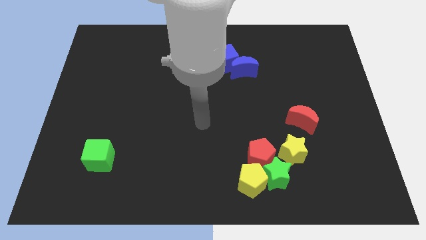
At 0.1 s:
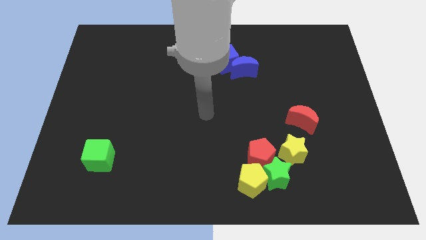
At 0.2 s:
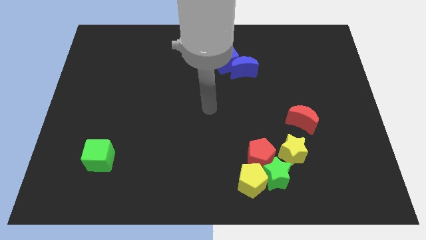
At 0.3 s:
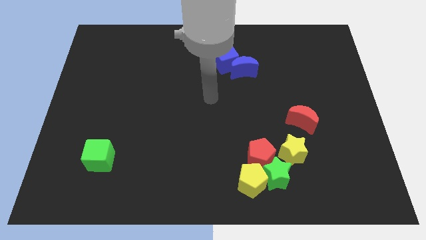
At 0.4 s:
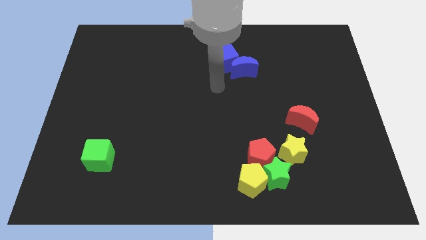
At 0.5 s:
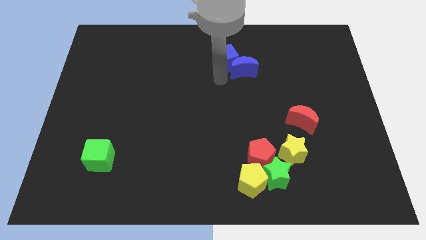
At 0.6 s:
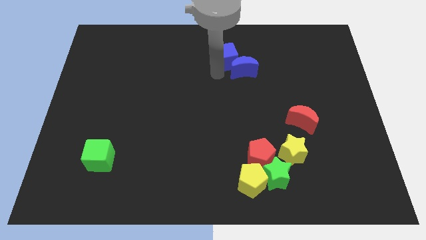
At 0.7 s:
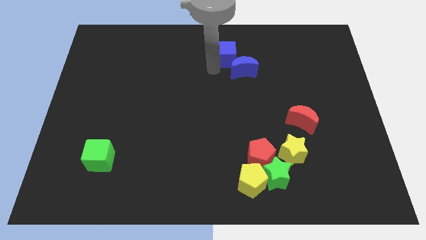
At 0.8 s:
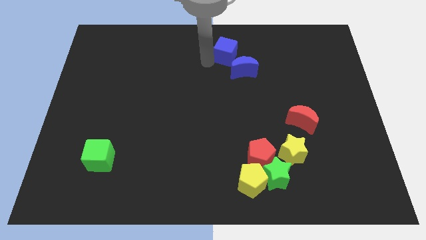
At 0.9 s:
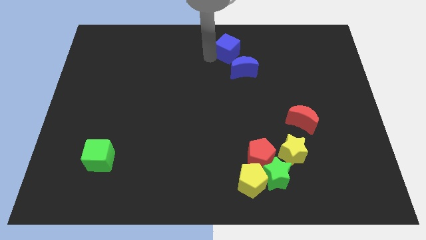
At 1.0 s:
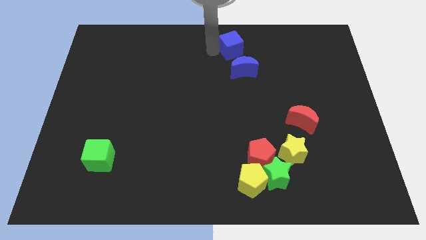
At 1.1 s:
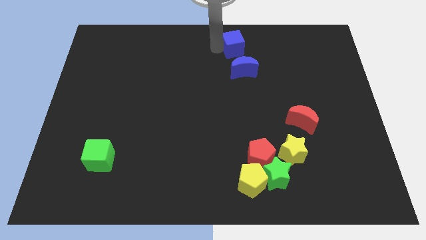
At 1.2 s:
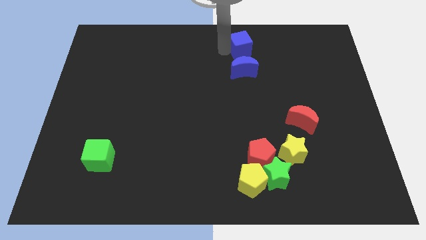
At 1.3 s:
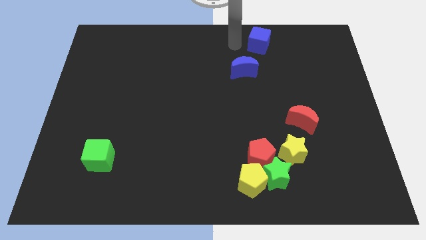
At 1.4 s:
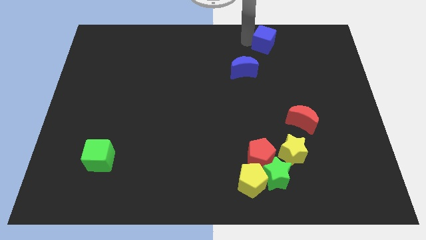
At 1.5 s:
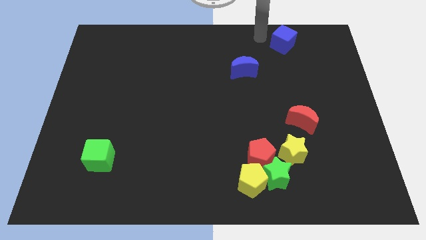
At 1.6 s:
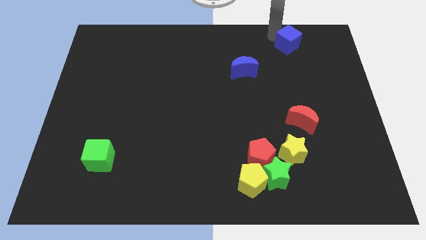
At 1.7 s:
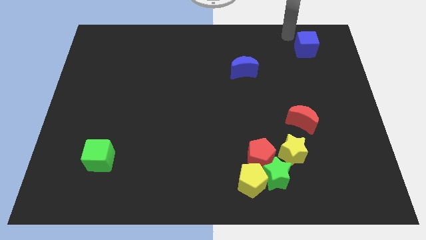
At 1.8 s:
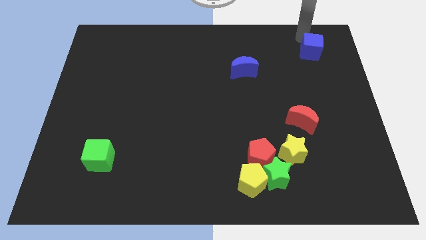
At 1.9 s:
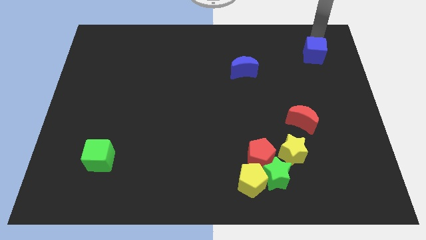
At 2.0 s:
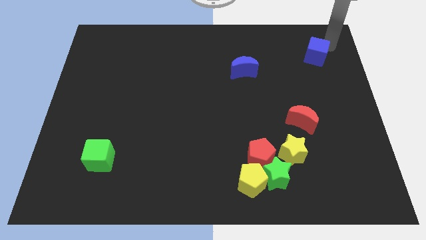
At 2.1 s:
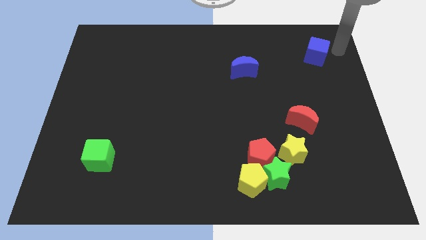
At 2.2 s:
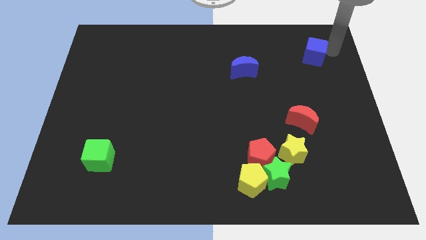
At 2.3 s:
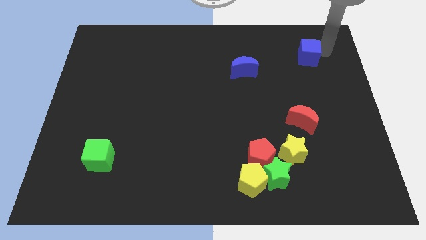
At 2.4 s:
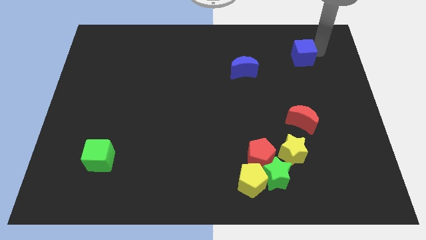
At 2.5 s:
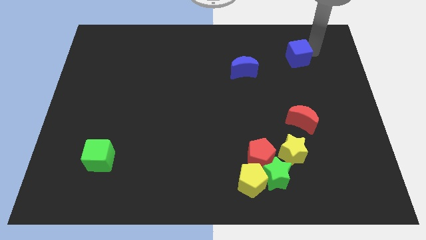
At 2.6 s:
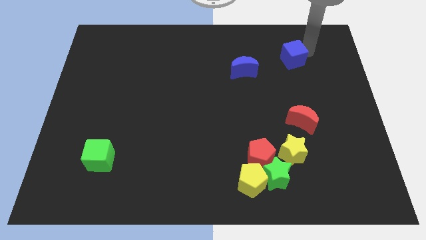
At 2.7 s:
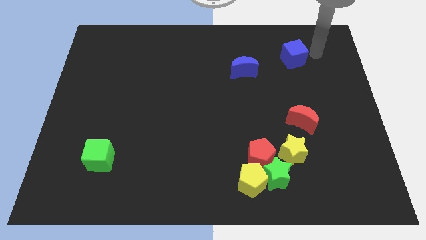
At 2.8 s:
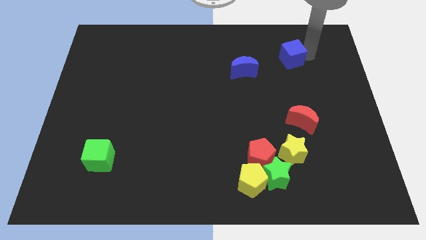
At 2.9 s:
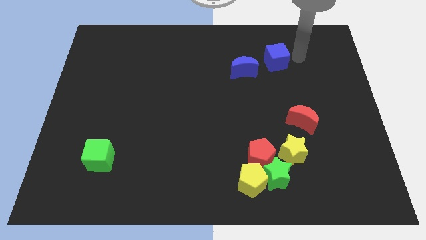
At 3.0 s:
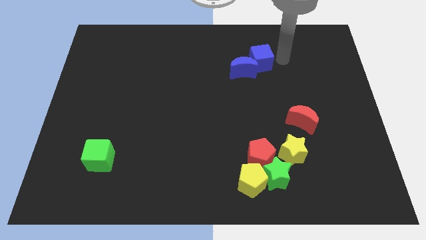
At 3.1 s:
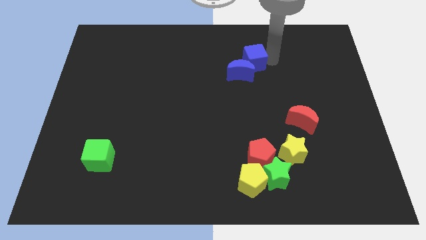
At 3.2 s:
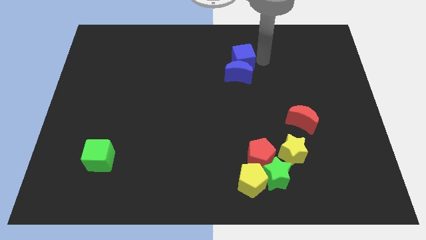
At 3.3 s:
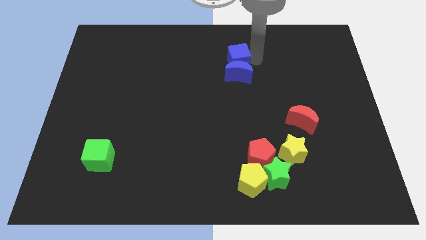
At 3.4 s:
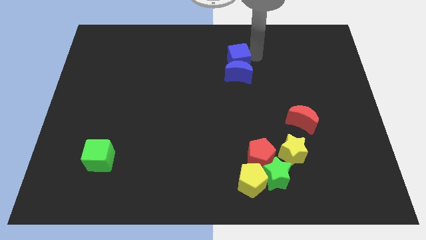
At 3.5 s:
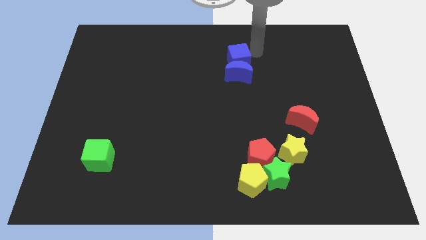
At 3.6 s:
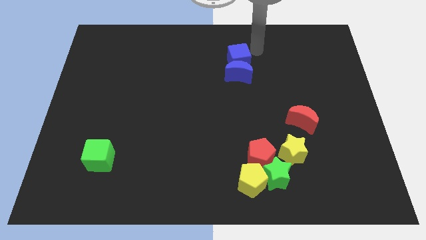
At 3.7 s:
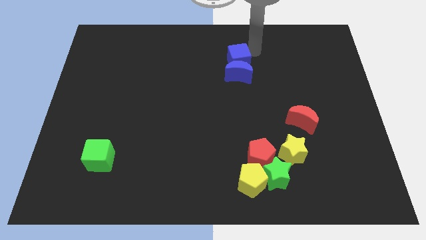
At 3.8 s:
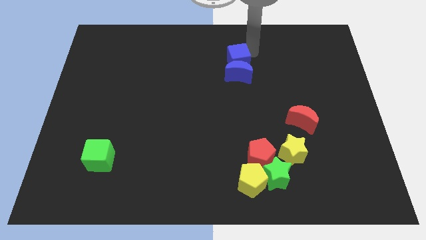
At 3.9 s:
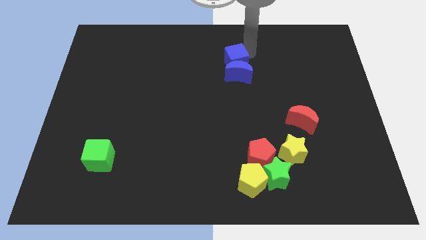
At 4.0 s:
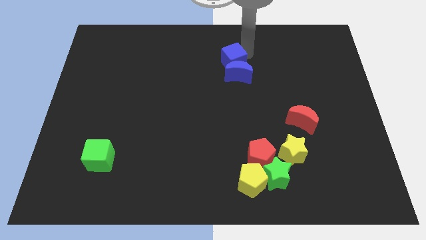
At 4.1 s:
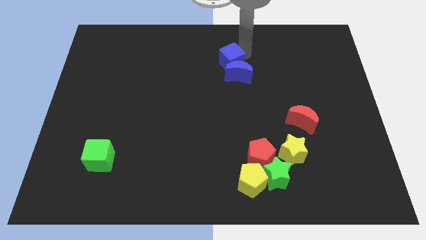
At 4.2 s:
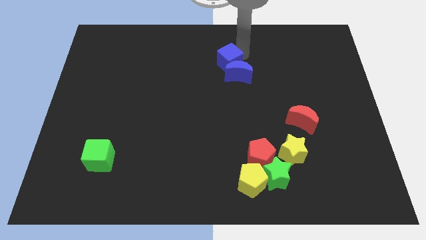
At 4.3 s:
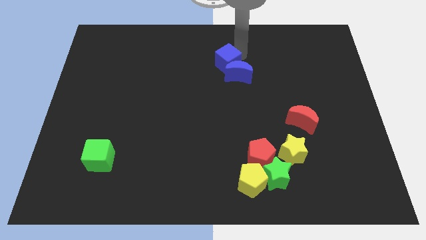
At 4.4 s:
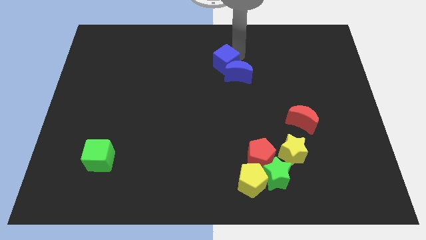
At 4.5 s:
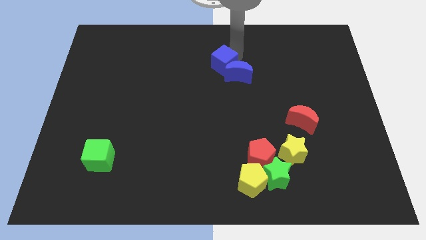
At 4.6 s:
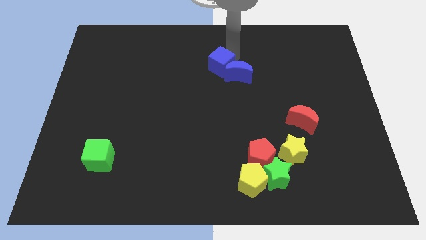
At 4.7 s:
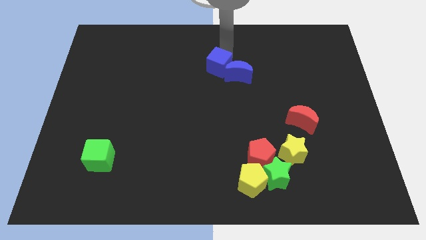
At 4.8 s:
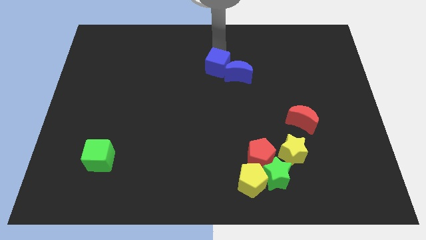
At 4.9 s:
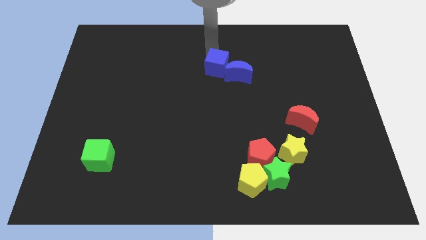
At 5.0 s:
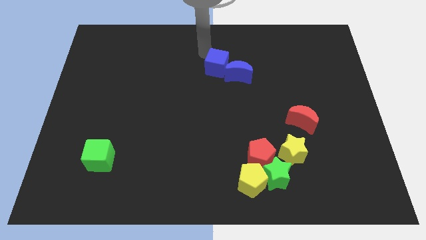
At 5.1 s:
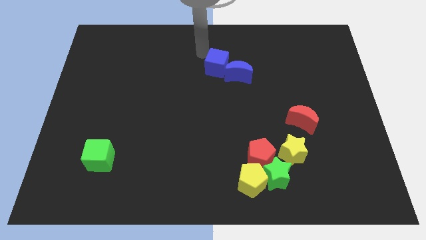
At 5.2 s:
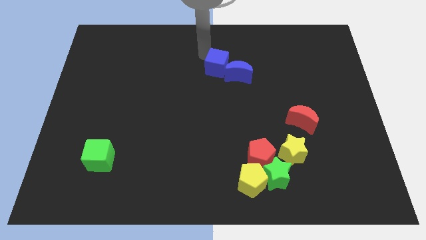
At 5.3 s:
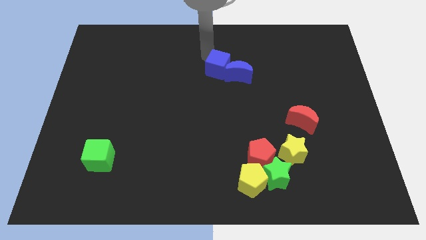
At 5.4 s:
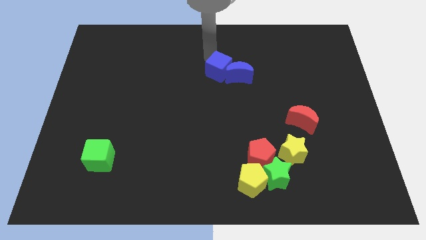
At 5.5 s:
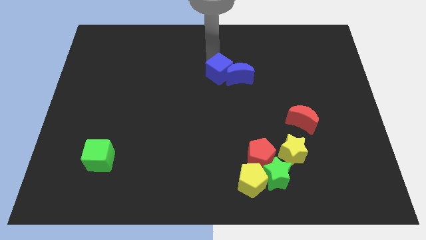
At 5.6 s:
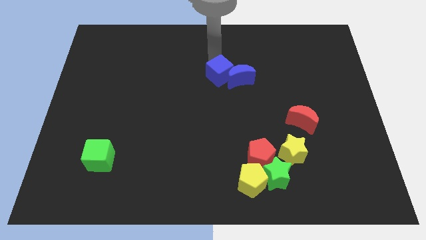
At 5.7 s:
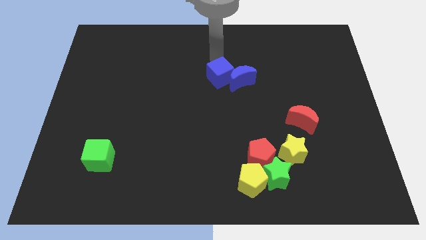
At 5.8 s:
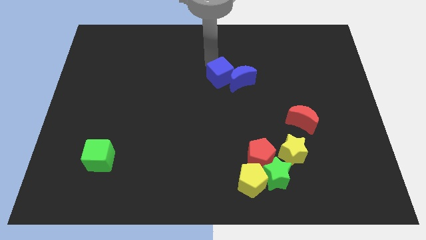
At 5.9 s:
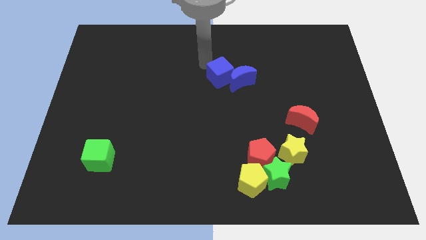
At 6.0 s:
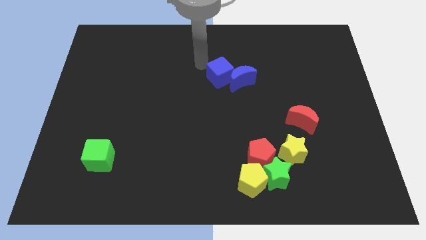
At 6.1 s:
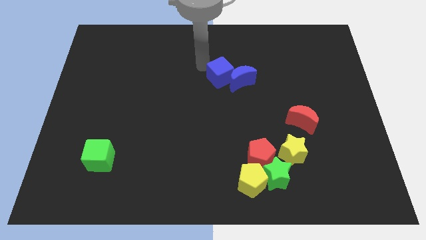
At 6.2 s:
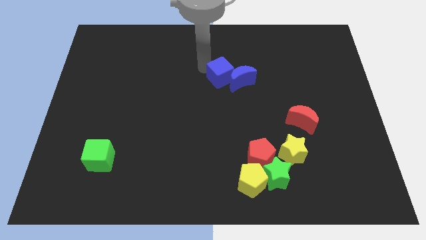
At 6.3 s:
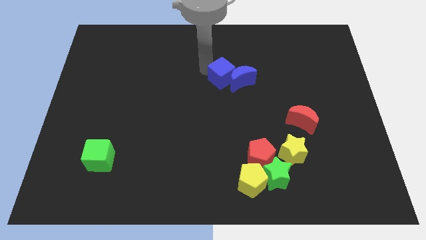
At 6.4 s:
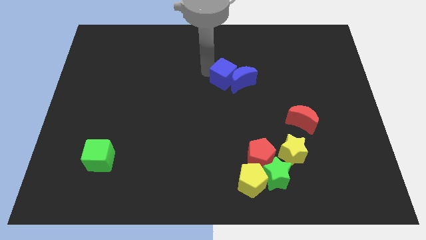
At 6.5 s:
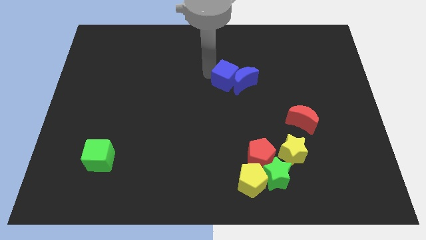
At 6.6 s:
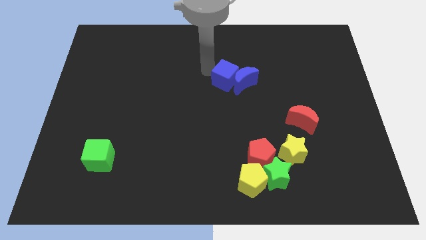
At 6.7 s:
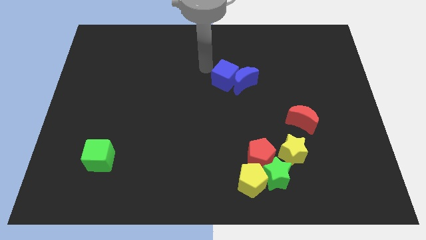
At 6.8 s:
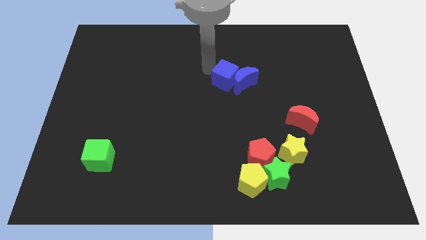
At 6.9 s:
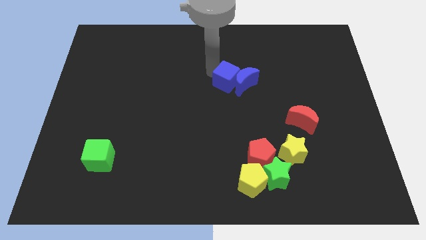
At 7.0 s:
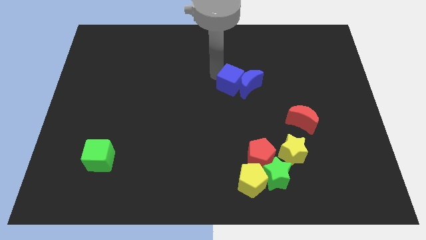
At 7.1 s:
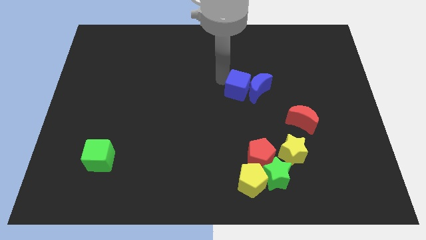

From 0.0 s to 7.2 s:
slightly slide the blue cube down and right

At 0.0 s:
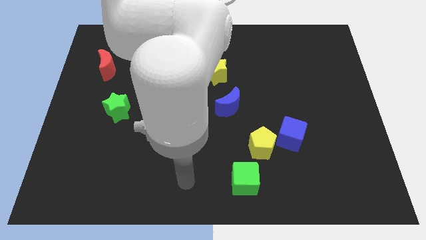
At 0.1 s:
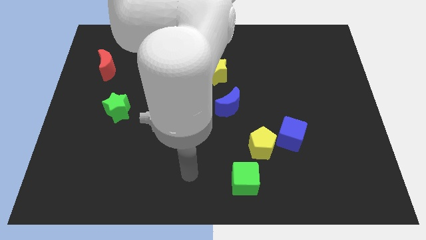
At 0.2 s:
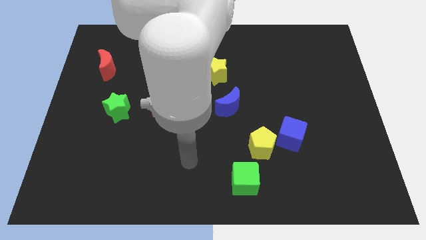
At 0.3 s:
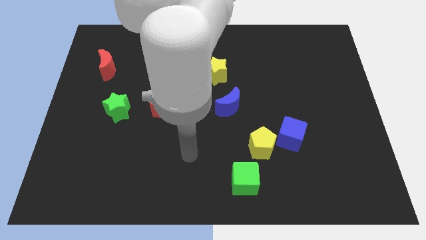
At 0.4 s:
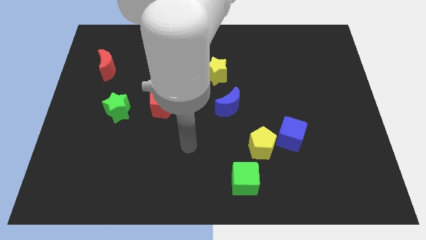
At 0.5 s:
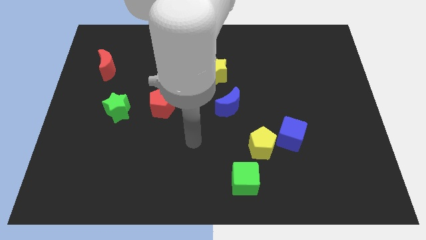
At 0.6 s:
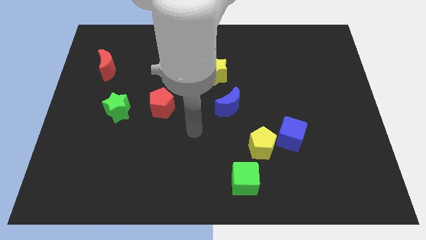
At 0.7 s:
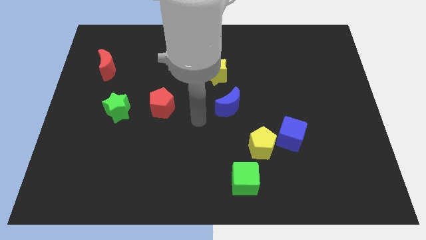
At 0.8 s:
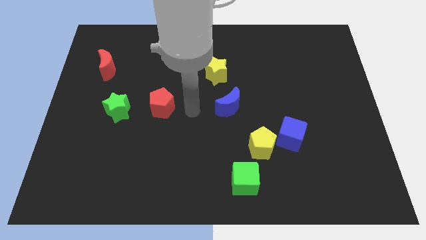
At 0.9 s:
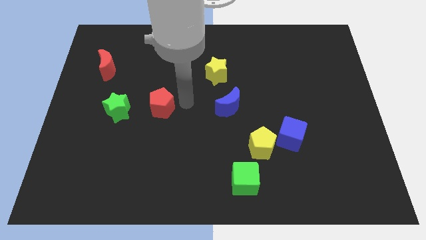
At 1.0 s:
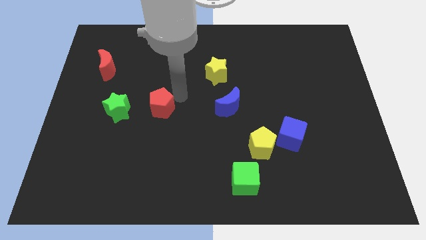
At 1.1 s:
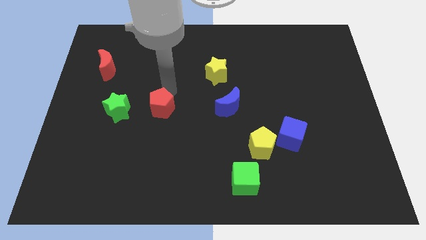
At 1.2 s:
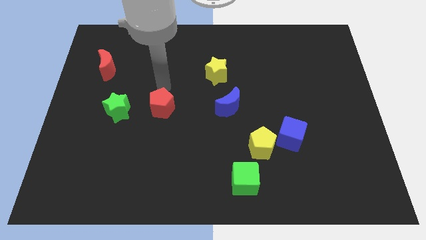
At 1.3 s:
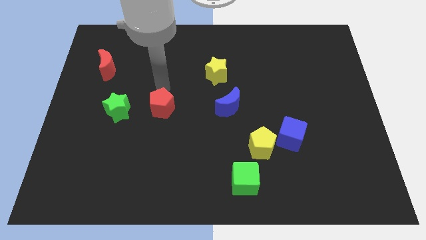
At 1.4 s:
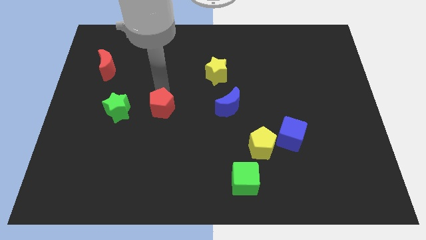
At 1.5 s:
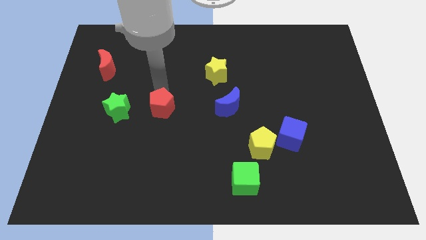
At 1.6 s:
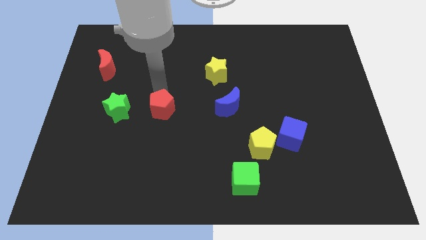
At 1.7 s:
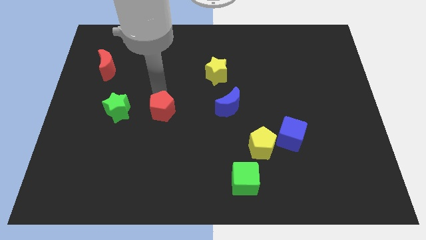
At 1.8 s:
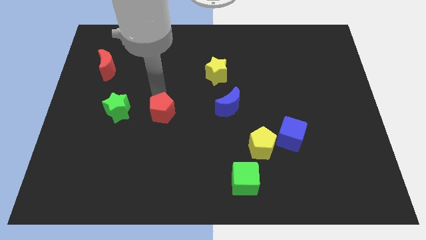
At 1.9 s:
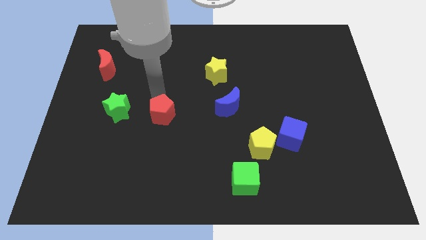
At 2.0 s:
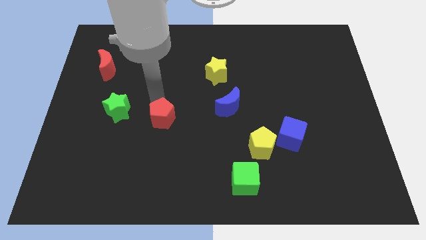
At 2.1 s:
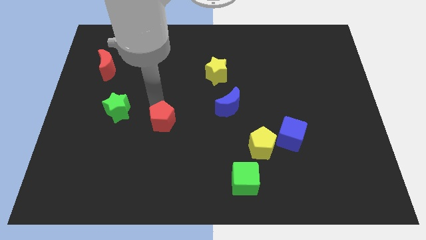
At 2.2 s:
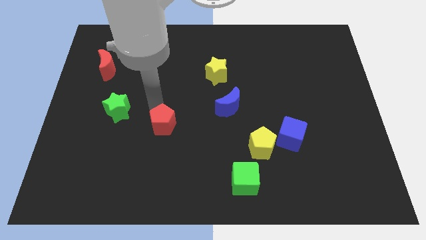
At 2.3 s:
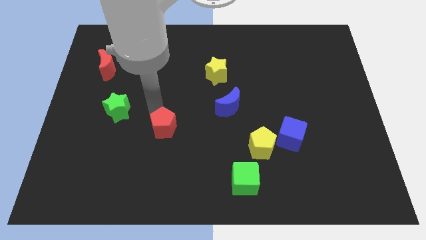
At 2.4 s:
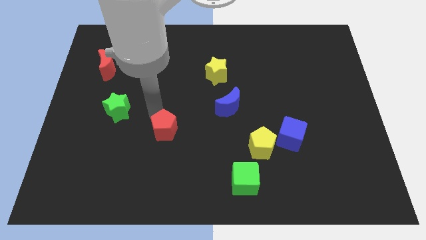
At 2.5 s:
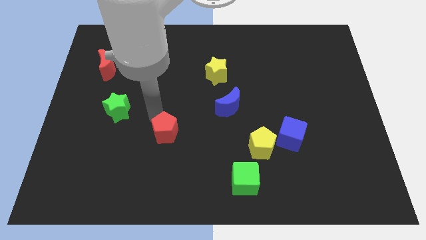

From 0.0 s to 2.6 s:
slightly push the red pentagon downwards
